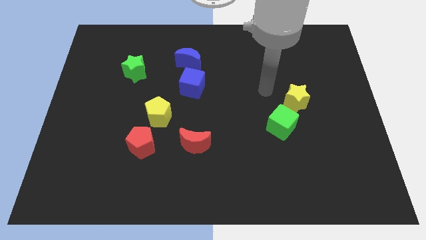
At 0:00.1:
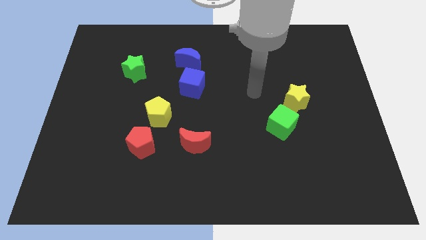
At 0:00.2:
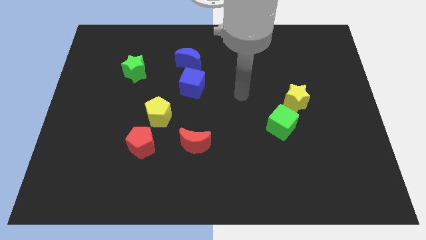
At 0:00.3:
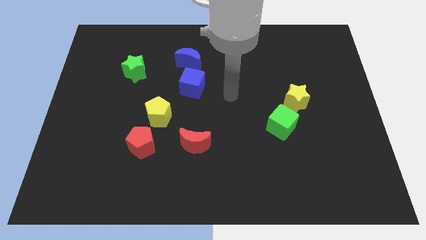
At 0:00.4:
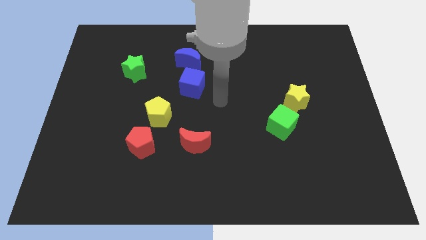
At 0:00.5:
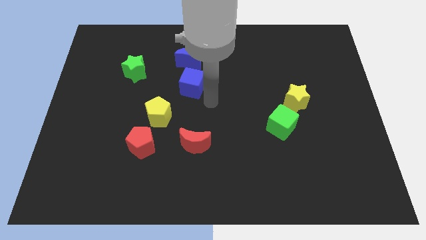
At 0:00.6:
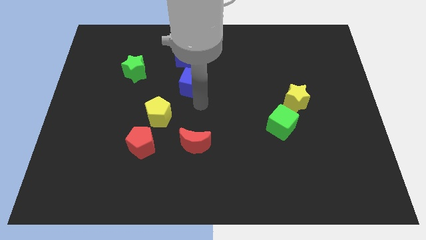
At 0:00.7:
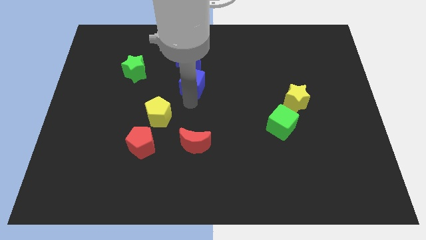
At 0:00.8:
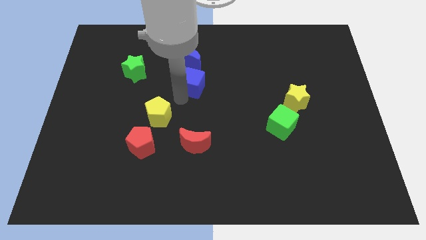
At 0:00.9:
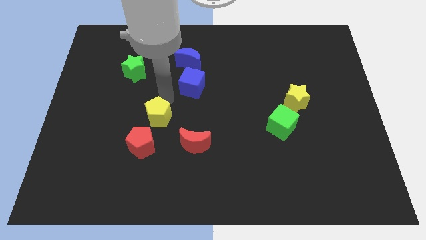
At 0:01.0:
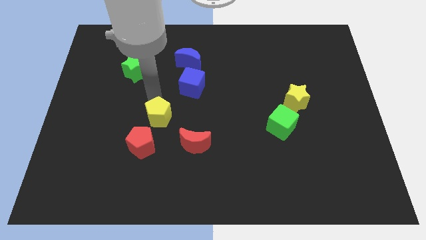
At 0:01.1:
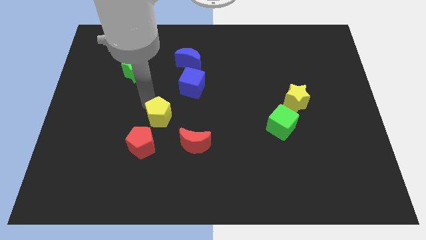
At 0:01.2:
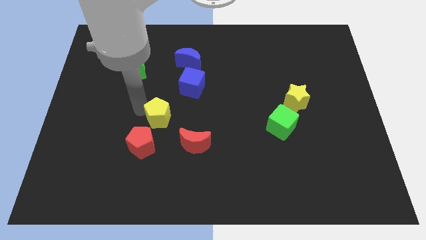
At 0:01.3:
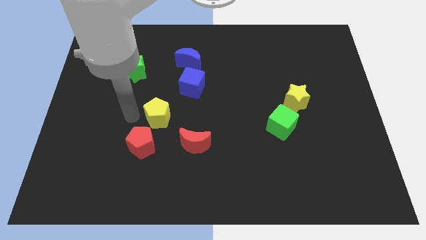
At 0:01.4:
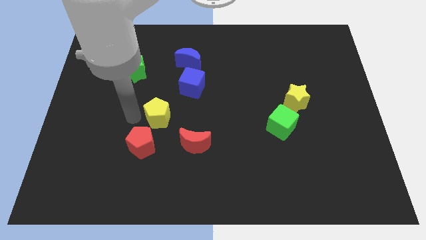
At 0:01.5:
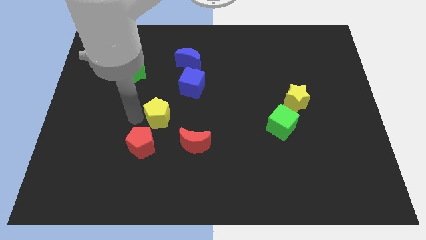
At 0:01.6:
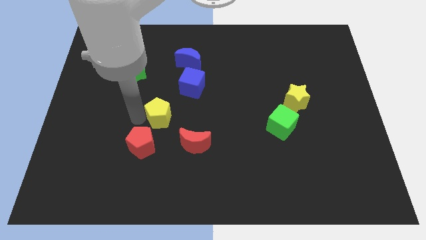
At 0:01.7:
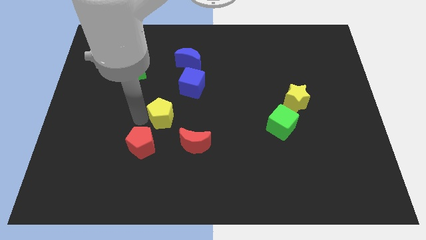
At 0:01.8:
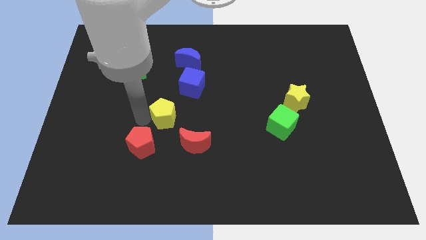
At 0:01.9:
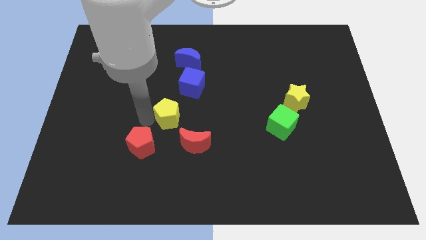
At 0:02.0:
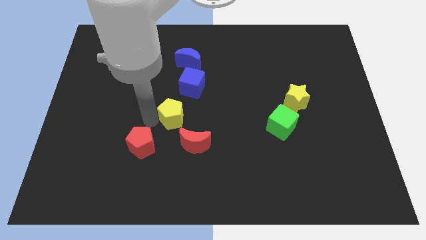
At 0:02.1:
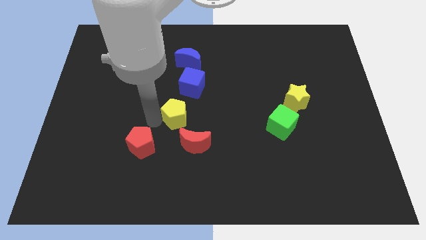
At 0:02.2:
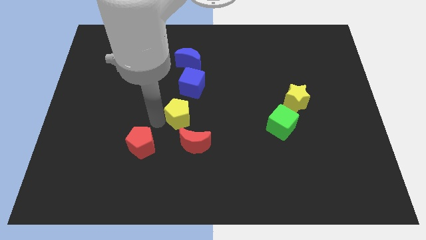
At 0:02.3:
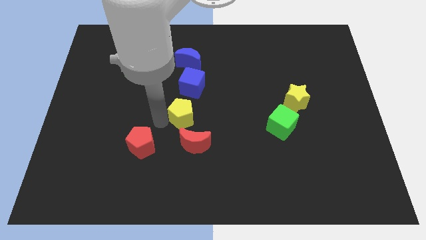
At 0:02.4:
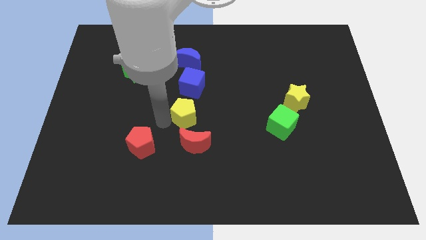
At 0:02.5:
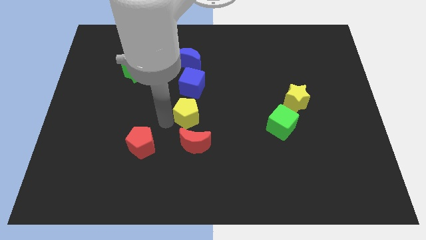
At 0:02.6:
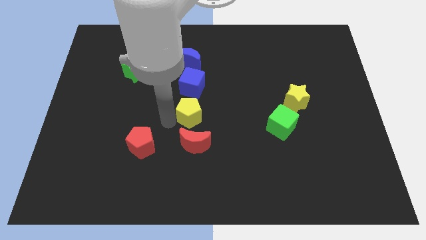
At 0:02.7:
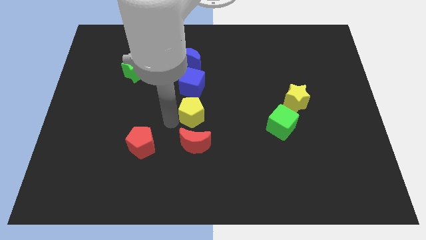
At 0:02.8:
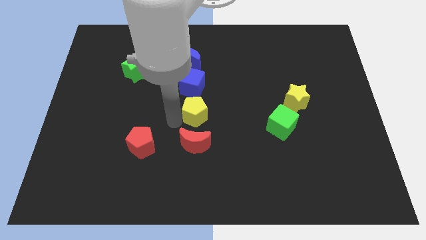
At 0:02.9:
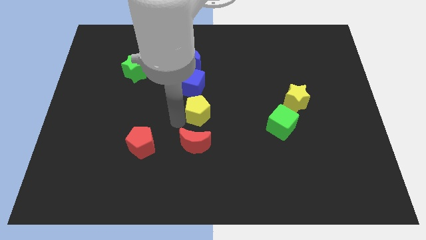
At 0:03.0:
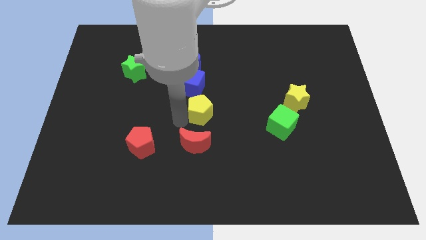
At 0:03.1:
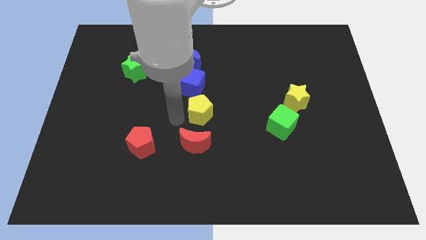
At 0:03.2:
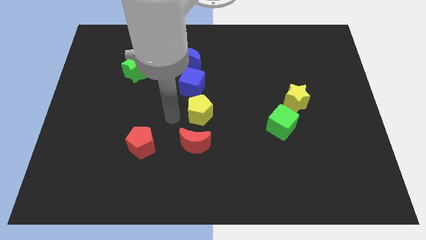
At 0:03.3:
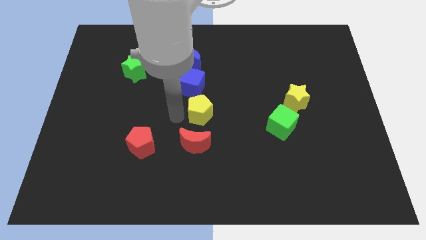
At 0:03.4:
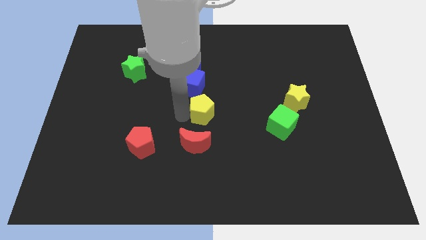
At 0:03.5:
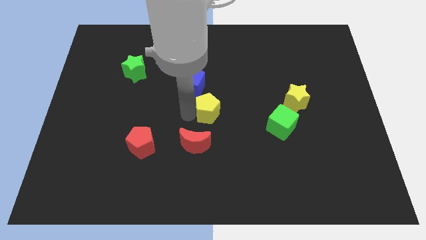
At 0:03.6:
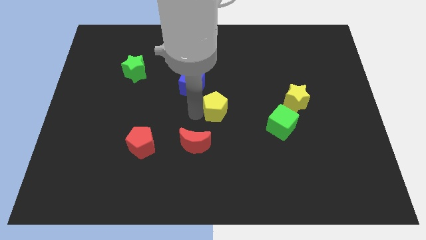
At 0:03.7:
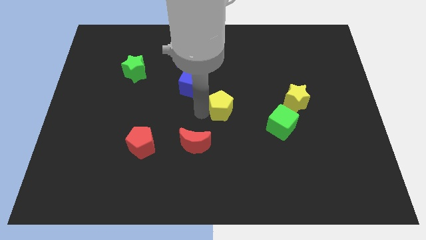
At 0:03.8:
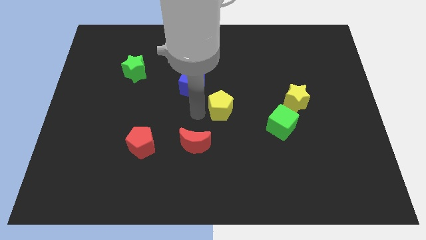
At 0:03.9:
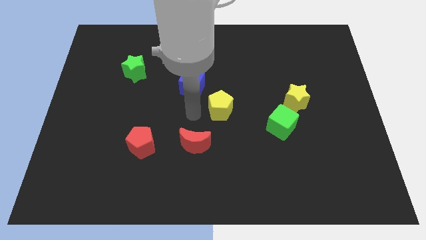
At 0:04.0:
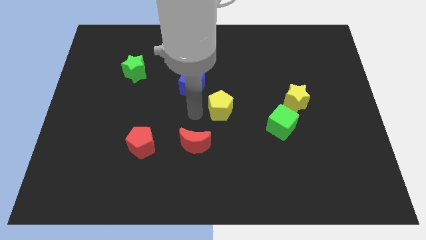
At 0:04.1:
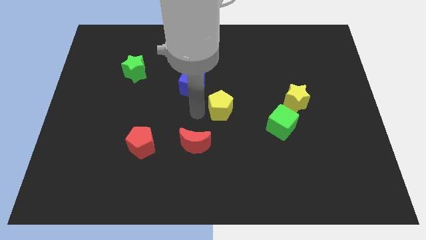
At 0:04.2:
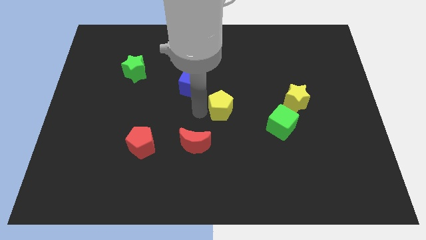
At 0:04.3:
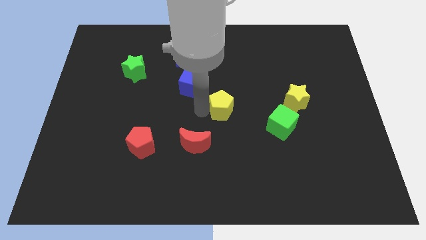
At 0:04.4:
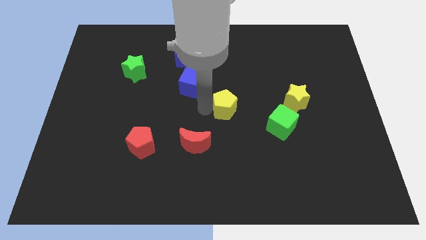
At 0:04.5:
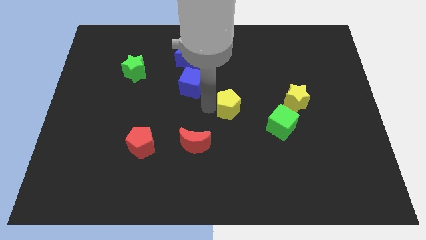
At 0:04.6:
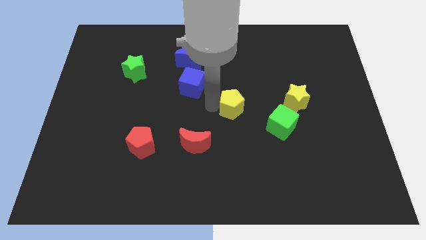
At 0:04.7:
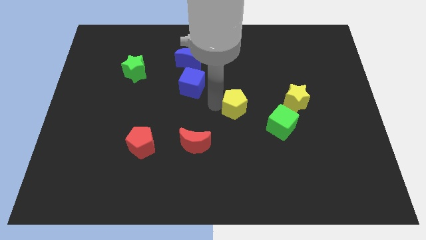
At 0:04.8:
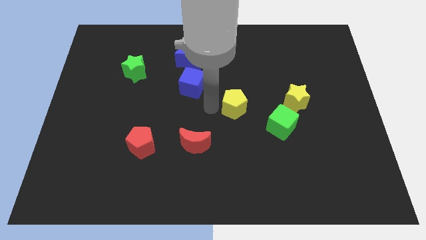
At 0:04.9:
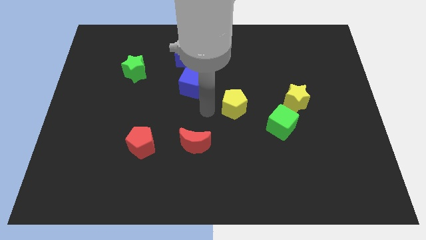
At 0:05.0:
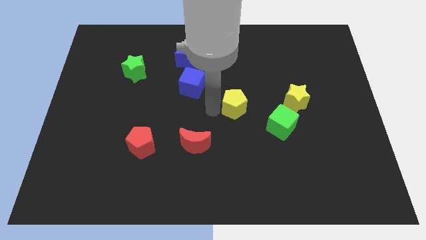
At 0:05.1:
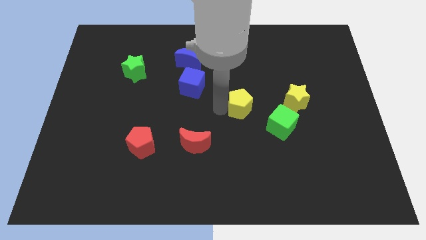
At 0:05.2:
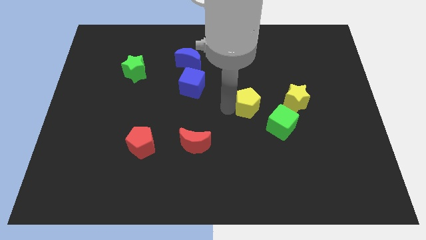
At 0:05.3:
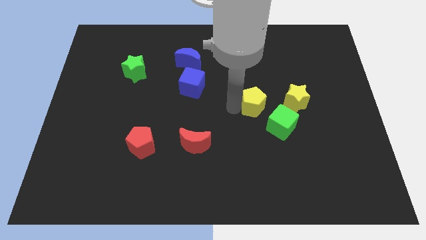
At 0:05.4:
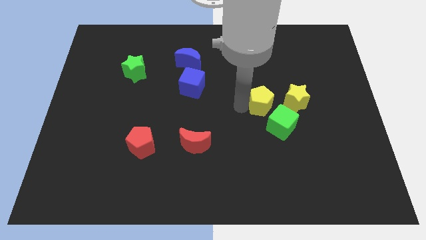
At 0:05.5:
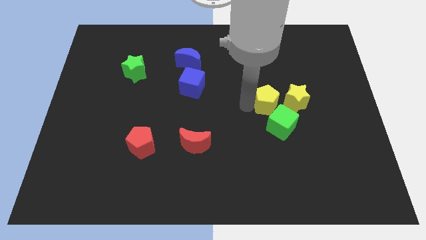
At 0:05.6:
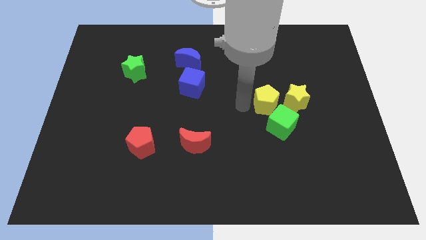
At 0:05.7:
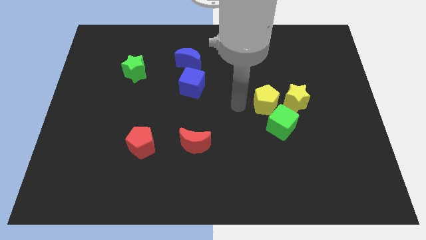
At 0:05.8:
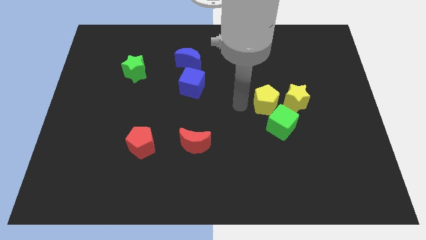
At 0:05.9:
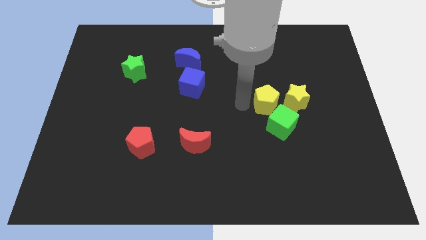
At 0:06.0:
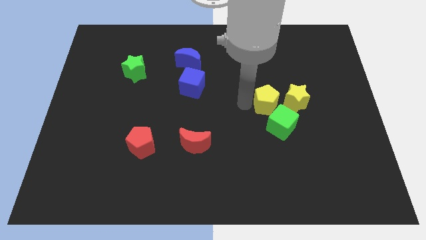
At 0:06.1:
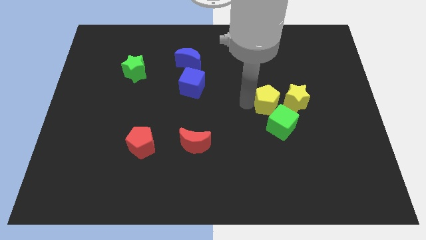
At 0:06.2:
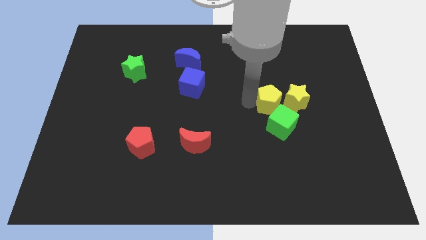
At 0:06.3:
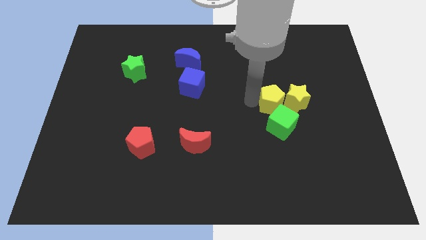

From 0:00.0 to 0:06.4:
move the yellow pentagon to the yellow star

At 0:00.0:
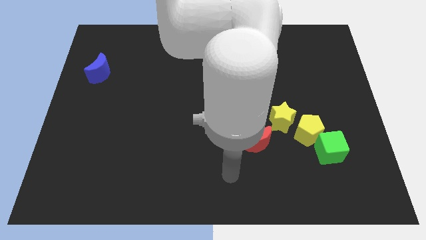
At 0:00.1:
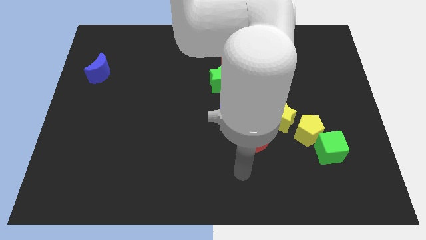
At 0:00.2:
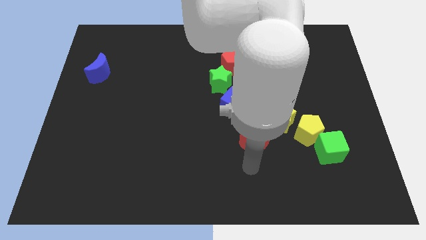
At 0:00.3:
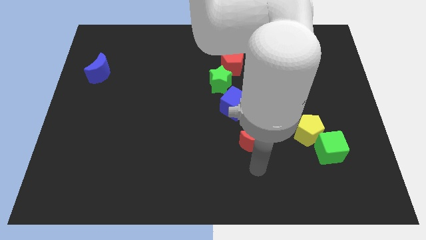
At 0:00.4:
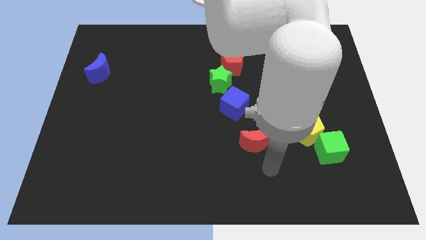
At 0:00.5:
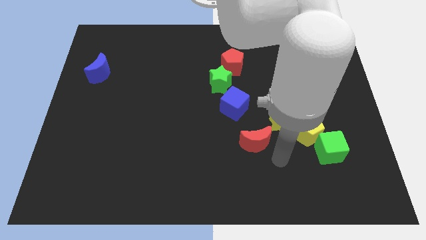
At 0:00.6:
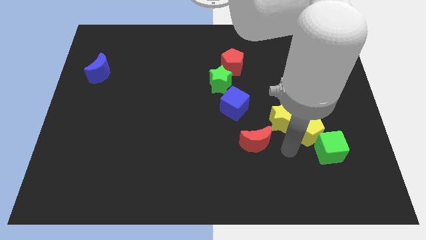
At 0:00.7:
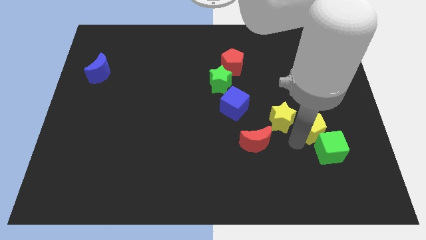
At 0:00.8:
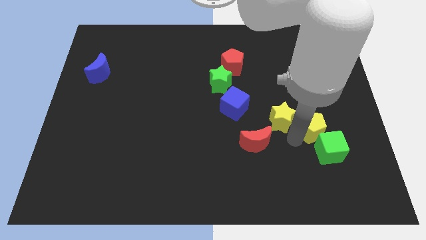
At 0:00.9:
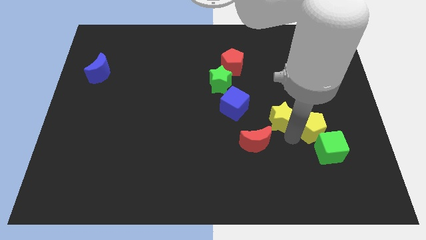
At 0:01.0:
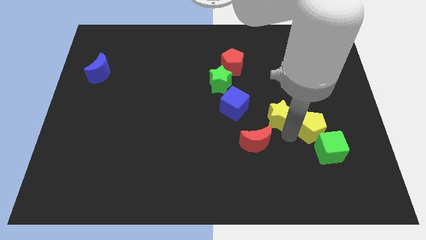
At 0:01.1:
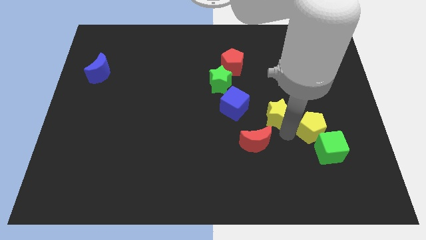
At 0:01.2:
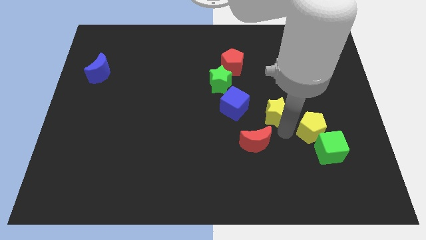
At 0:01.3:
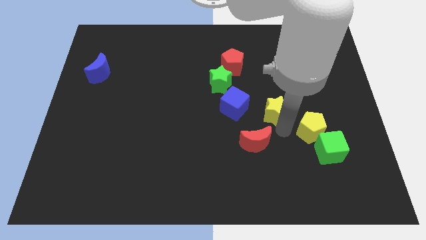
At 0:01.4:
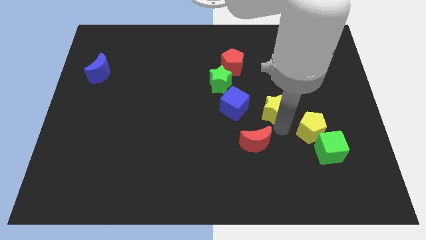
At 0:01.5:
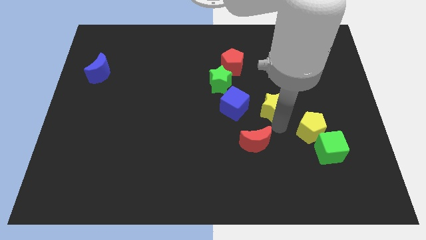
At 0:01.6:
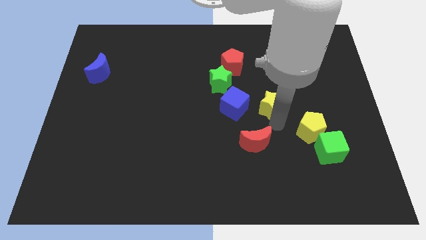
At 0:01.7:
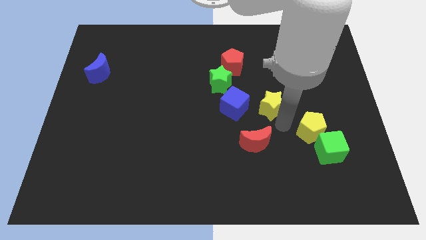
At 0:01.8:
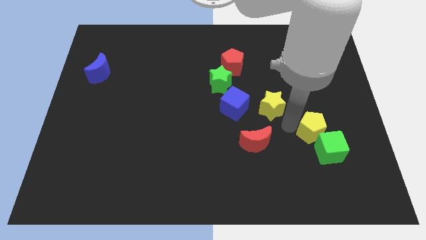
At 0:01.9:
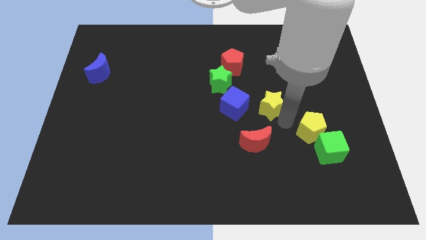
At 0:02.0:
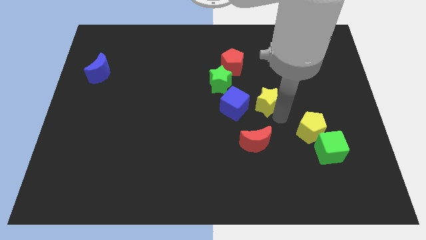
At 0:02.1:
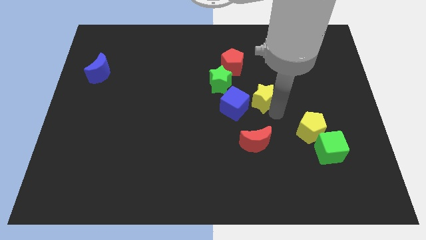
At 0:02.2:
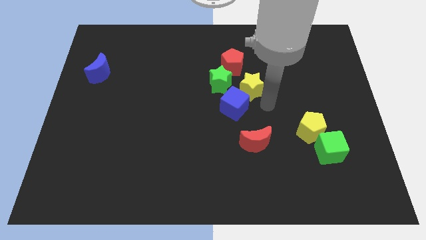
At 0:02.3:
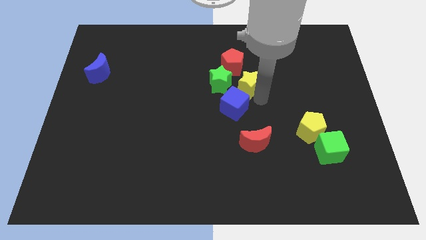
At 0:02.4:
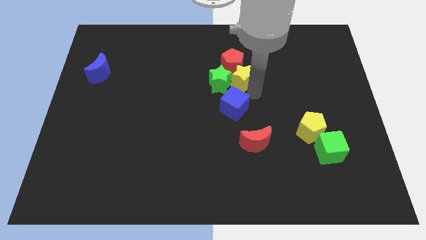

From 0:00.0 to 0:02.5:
slide the yellow star next to the red pentagon
